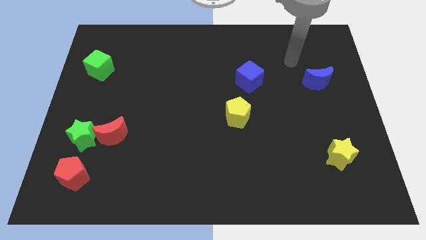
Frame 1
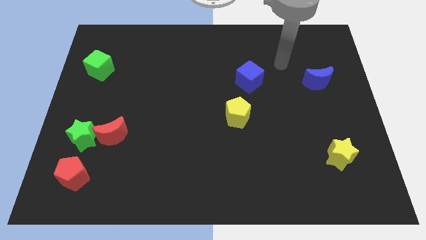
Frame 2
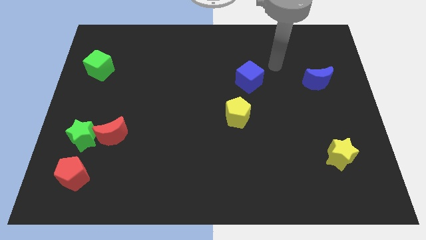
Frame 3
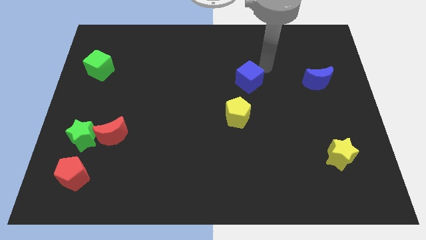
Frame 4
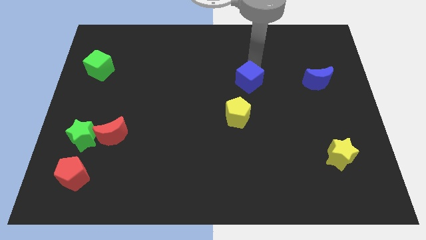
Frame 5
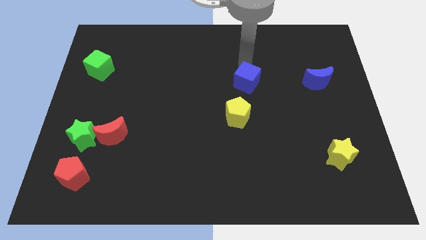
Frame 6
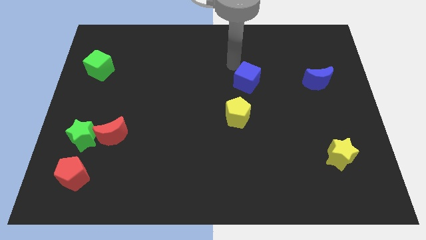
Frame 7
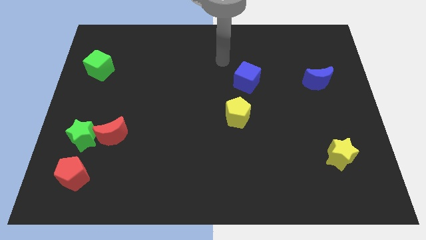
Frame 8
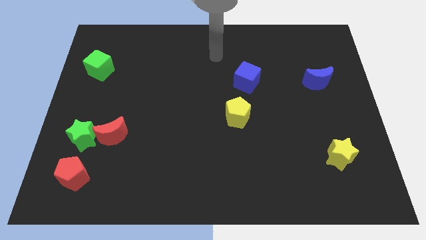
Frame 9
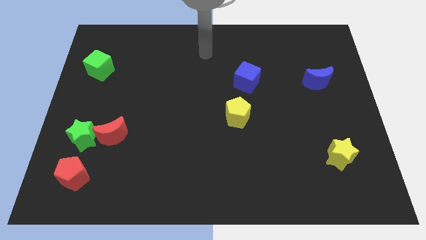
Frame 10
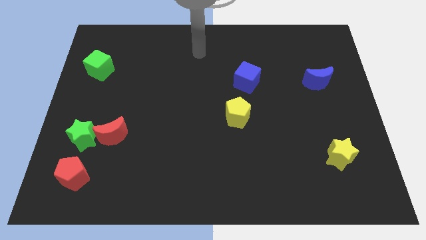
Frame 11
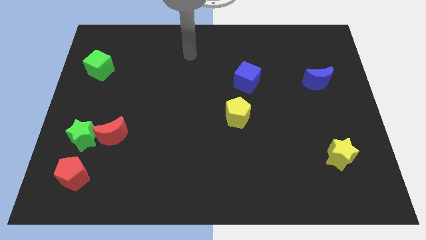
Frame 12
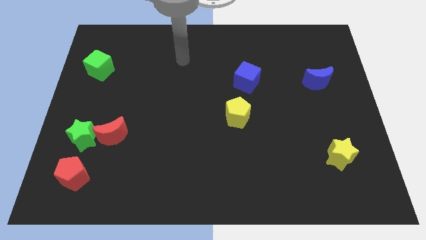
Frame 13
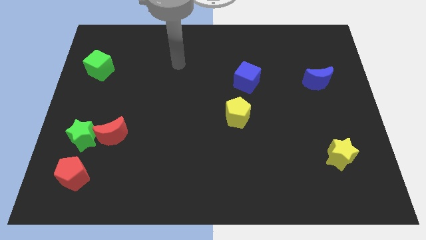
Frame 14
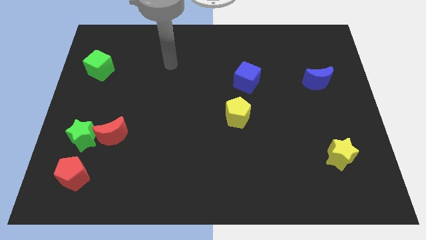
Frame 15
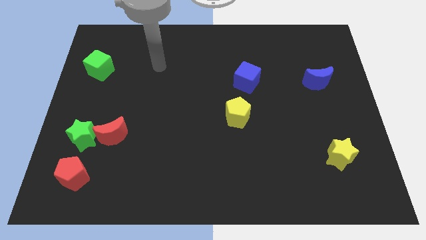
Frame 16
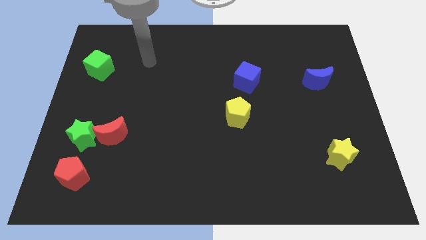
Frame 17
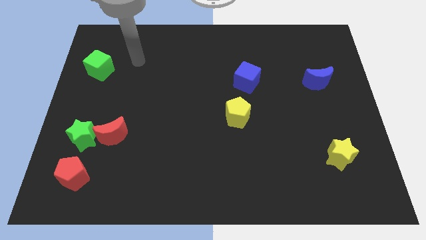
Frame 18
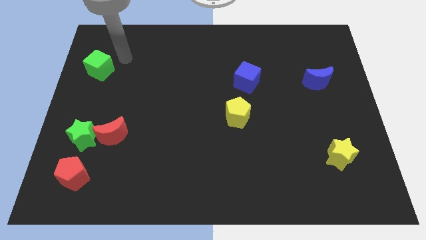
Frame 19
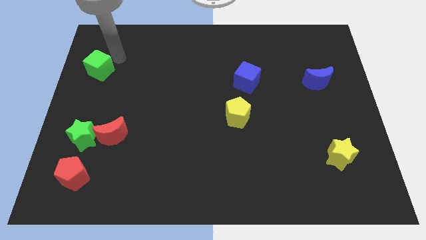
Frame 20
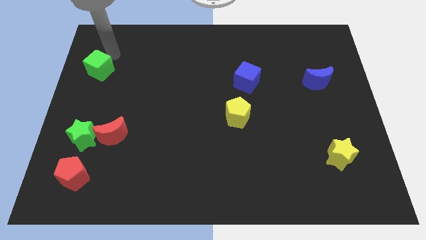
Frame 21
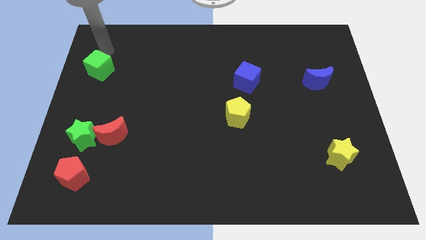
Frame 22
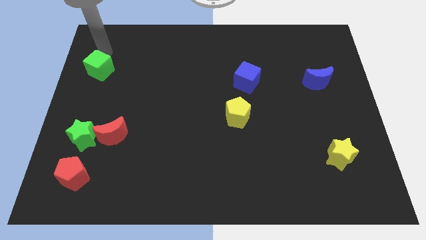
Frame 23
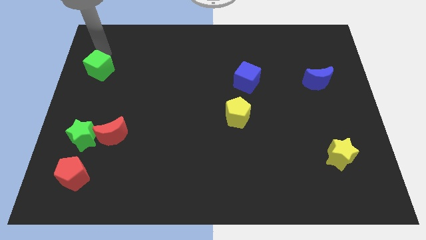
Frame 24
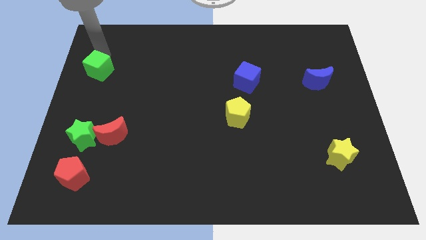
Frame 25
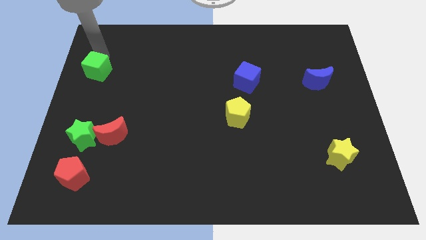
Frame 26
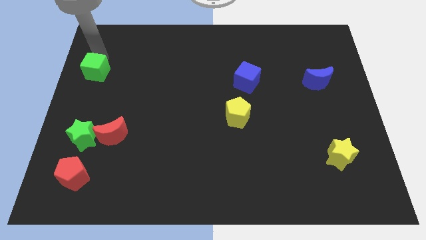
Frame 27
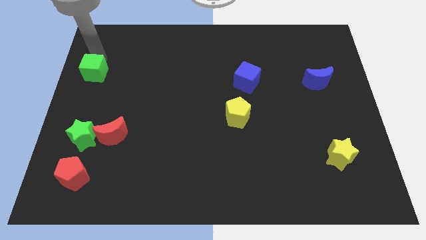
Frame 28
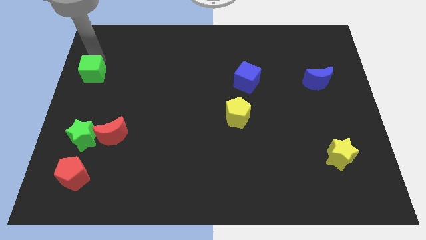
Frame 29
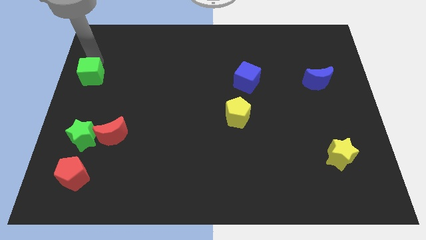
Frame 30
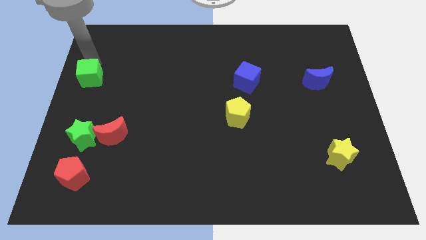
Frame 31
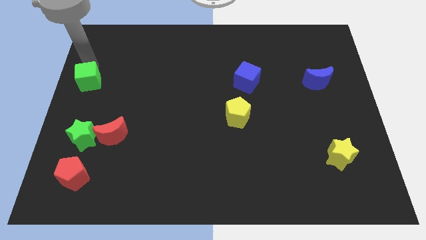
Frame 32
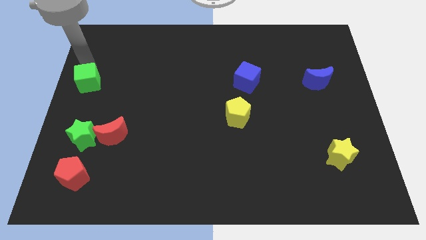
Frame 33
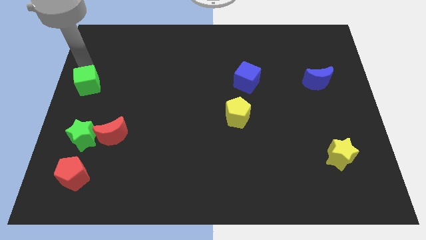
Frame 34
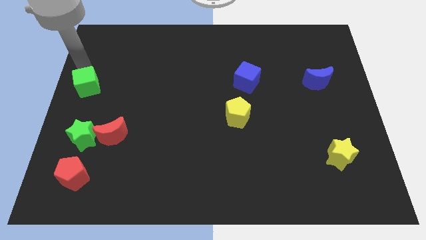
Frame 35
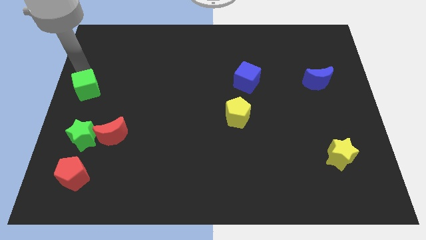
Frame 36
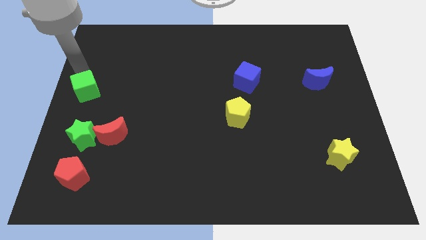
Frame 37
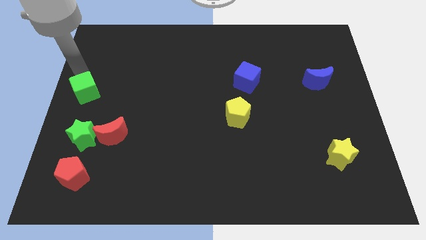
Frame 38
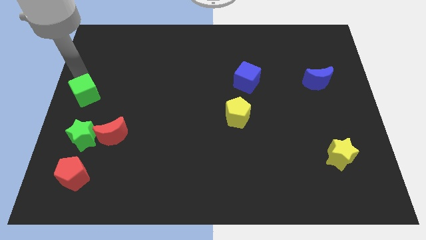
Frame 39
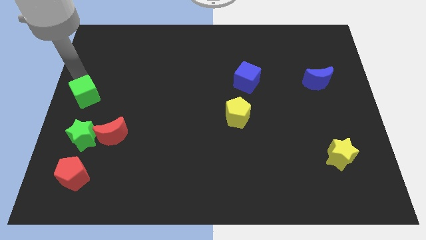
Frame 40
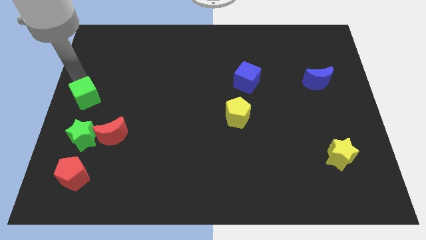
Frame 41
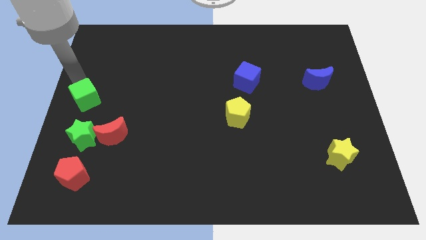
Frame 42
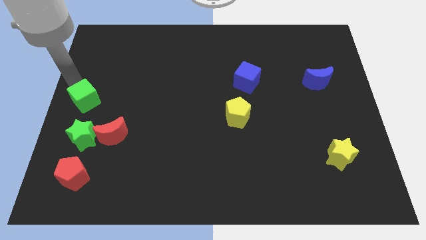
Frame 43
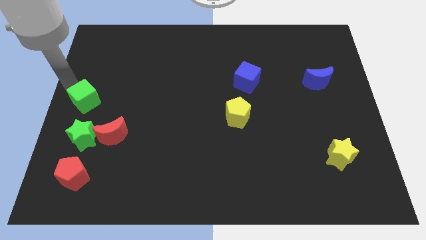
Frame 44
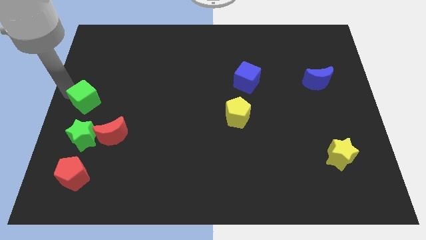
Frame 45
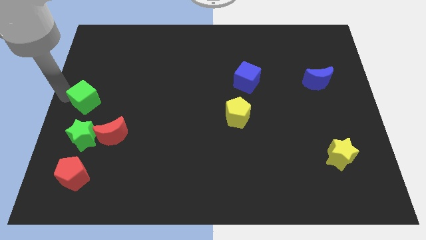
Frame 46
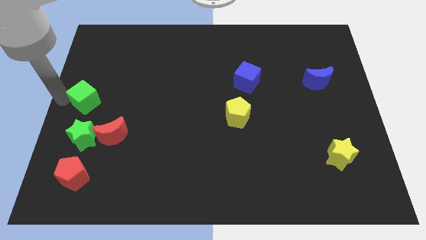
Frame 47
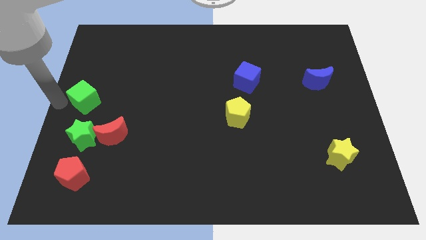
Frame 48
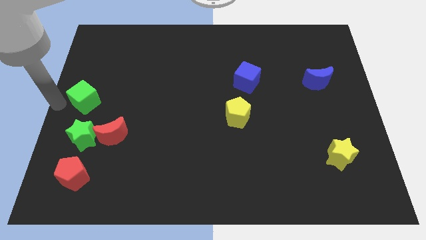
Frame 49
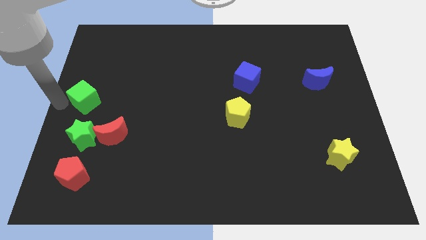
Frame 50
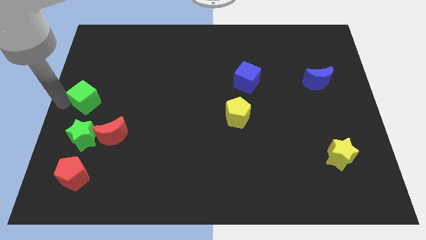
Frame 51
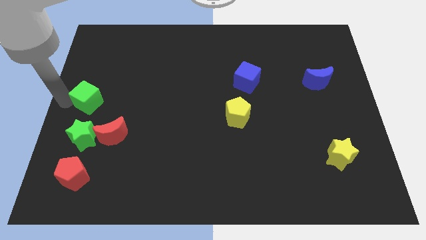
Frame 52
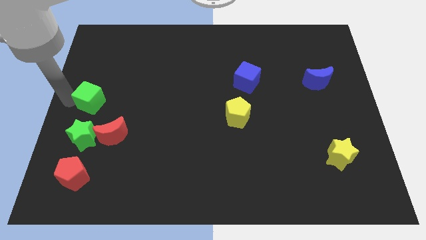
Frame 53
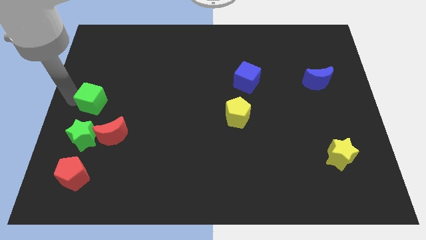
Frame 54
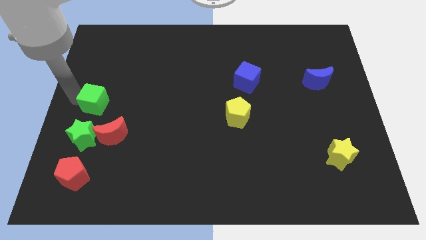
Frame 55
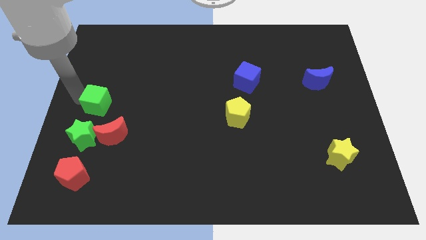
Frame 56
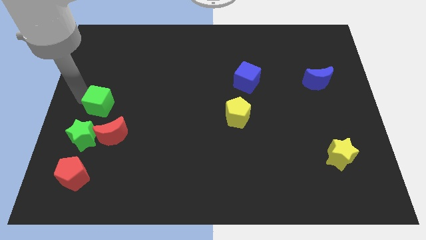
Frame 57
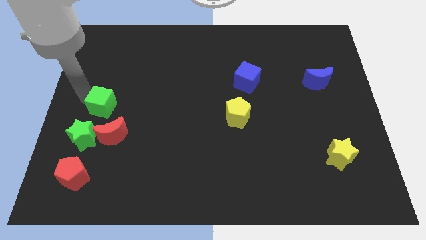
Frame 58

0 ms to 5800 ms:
slide the green cube to the top right of the green star
